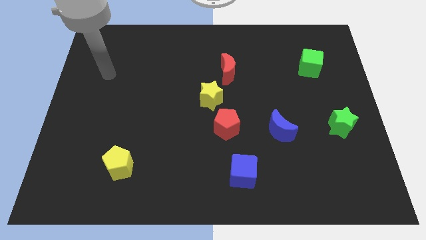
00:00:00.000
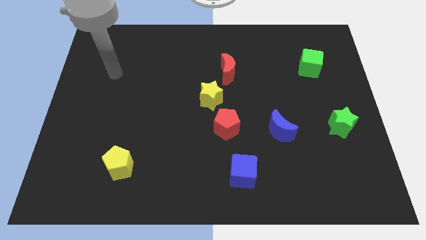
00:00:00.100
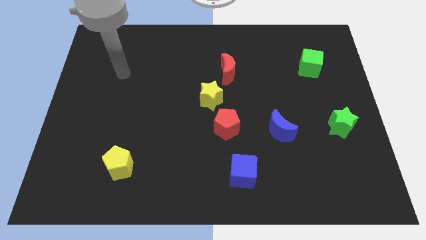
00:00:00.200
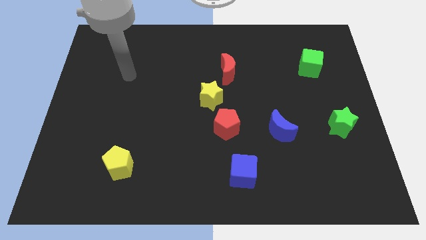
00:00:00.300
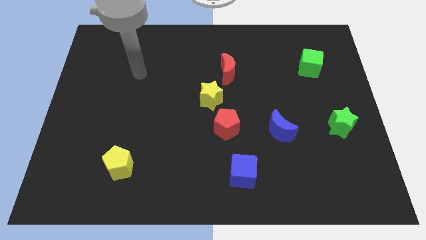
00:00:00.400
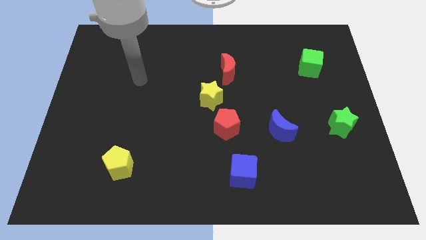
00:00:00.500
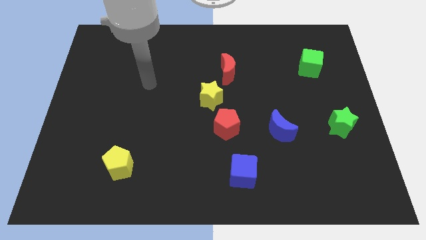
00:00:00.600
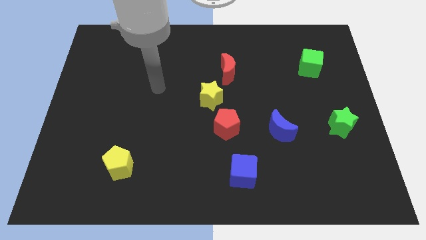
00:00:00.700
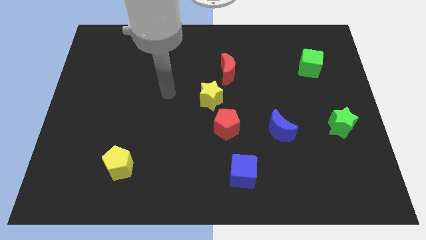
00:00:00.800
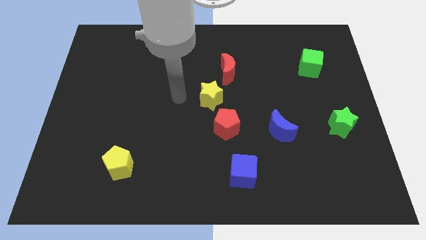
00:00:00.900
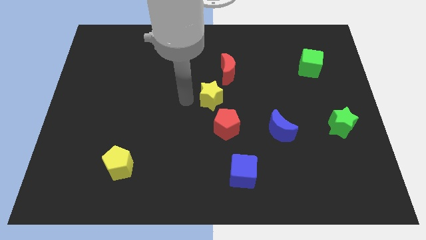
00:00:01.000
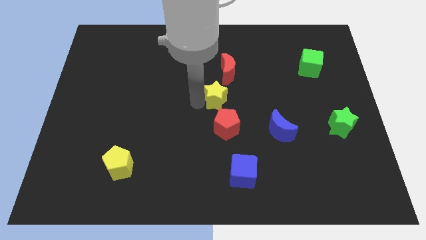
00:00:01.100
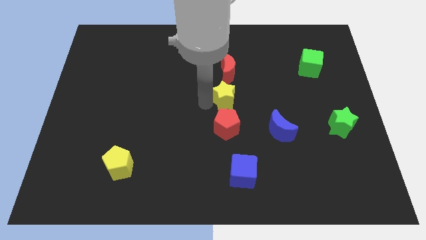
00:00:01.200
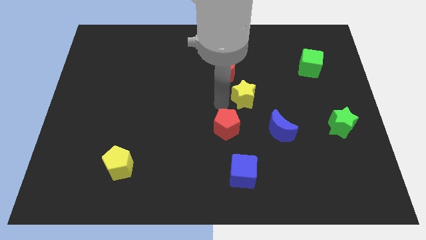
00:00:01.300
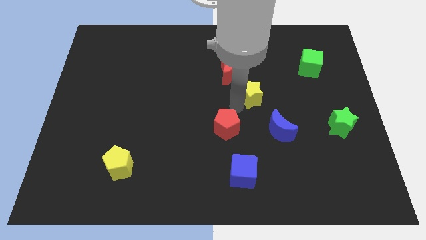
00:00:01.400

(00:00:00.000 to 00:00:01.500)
pull the red pentagon apart from the yellow star

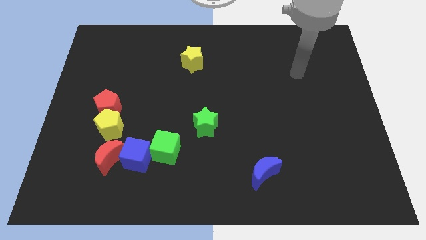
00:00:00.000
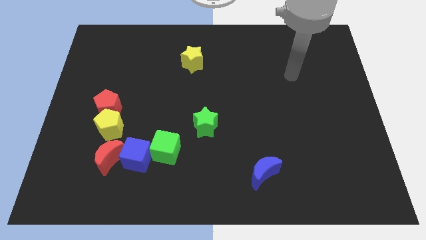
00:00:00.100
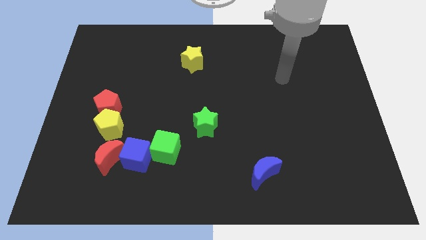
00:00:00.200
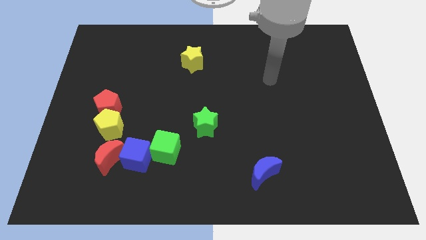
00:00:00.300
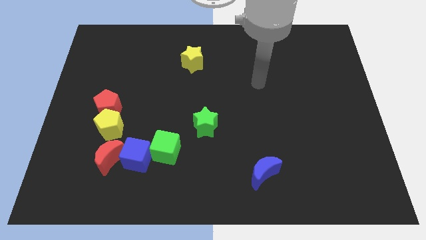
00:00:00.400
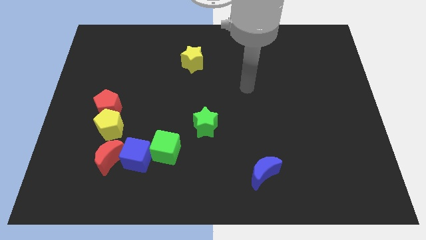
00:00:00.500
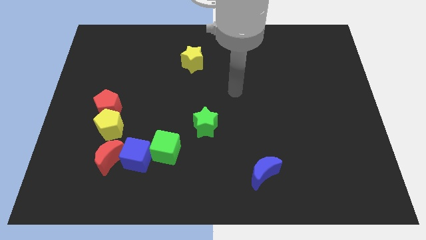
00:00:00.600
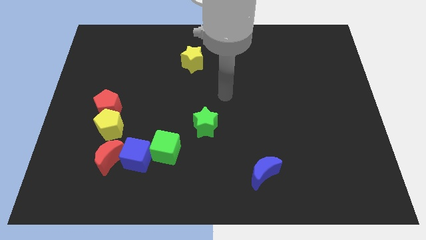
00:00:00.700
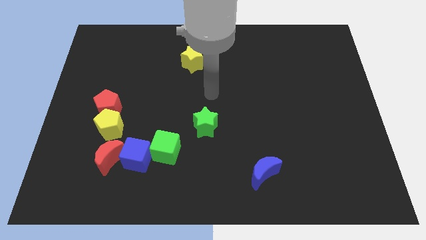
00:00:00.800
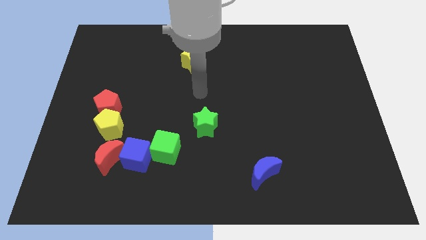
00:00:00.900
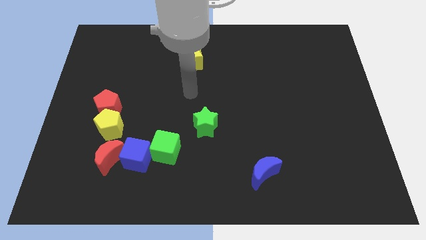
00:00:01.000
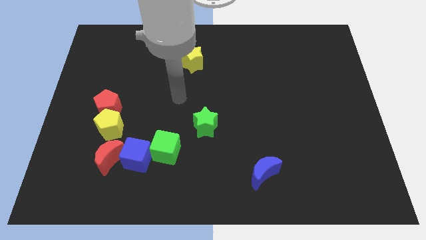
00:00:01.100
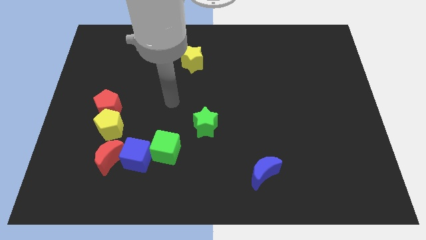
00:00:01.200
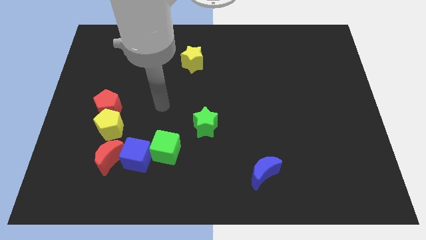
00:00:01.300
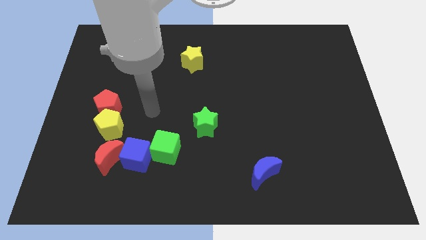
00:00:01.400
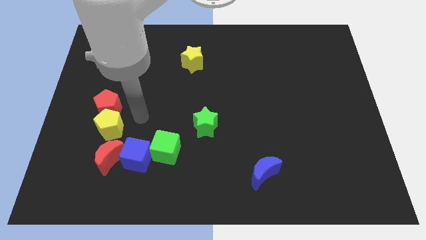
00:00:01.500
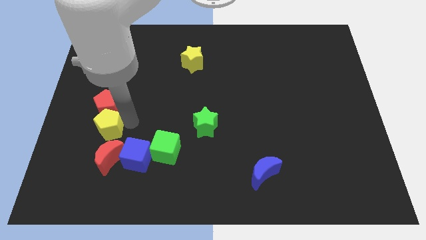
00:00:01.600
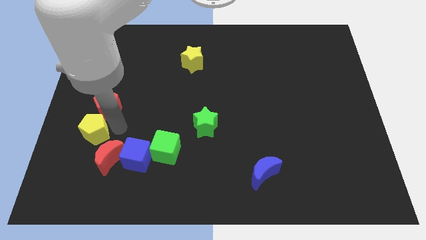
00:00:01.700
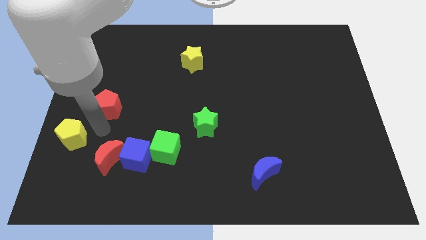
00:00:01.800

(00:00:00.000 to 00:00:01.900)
move the red pentagon away from the yellow pentagon

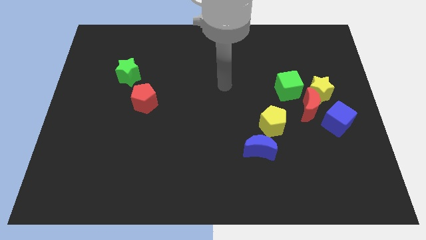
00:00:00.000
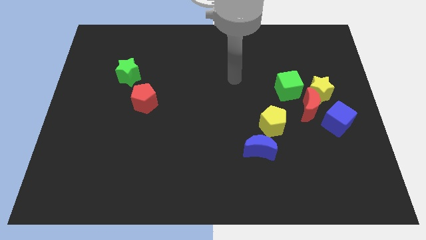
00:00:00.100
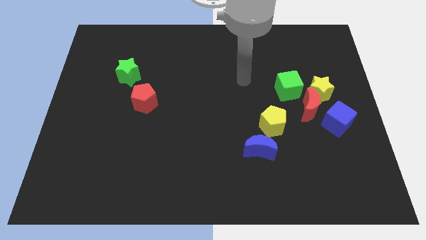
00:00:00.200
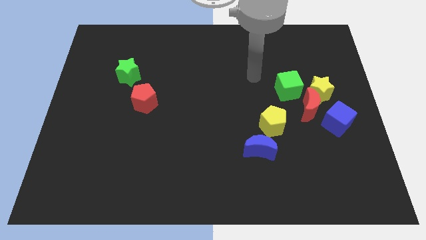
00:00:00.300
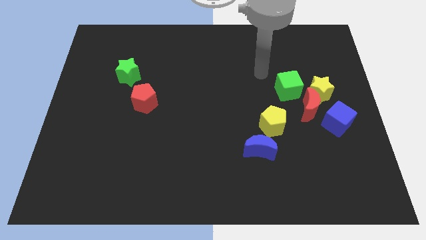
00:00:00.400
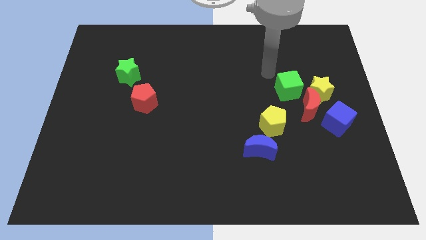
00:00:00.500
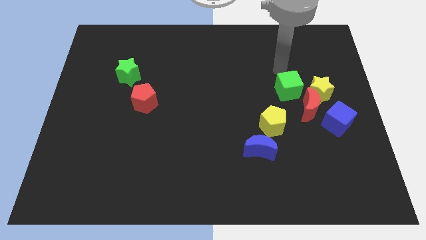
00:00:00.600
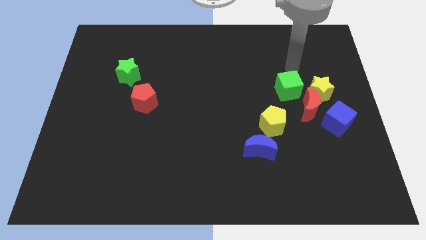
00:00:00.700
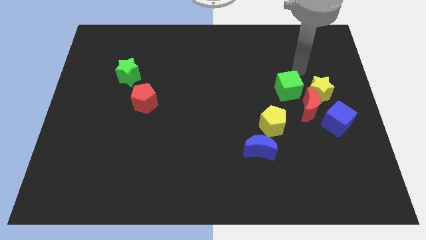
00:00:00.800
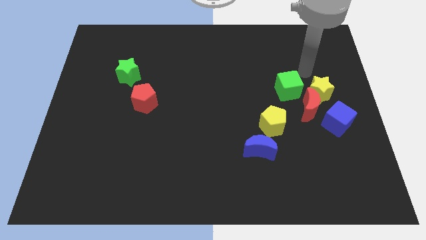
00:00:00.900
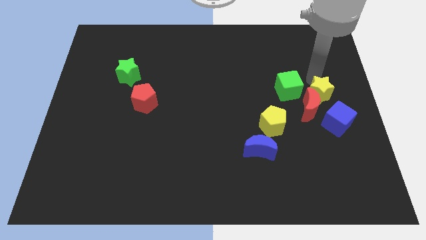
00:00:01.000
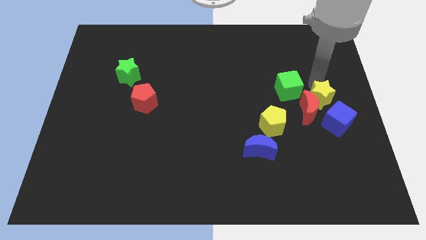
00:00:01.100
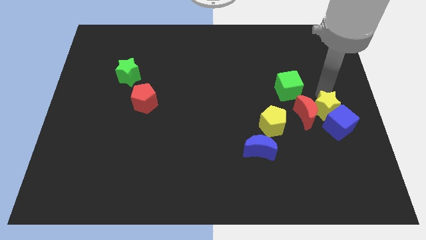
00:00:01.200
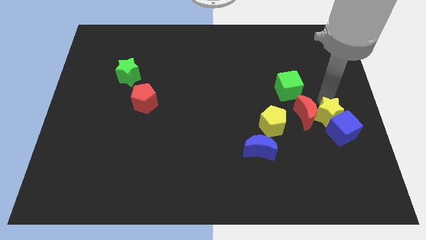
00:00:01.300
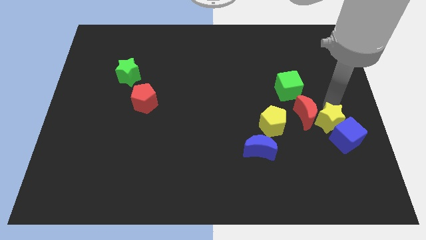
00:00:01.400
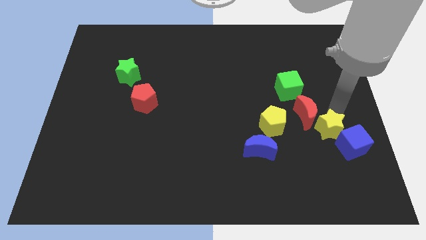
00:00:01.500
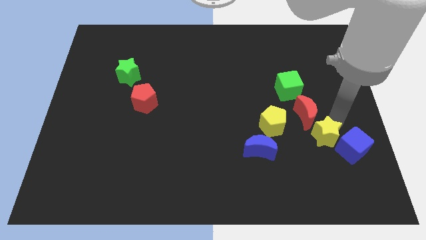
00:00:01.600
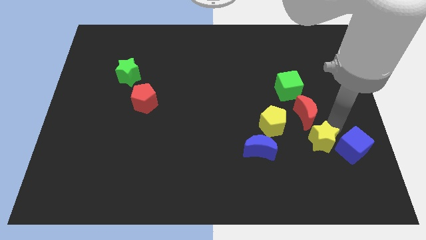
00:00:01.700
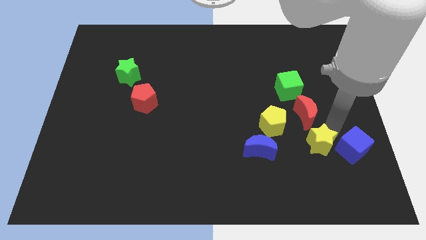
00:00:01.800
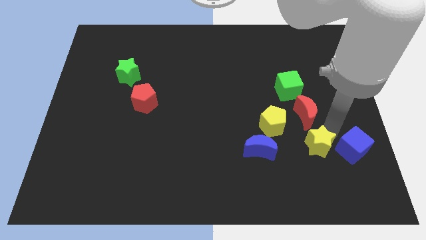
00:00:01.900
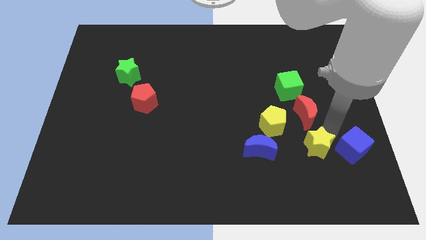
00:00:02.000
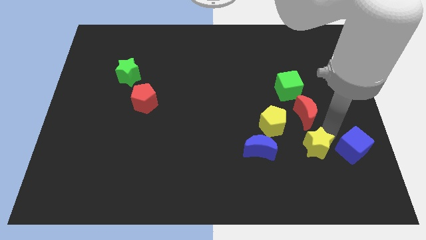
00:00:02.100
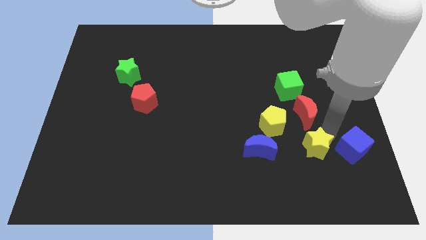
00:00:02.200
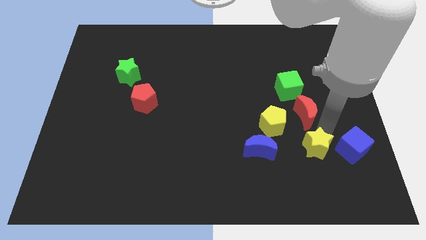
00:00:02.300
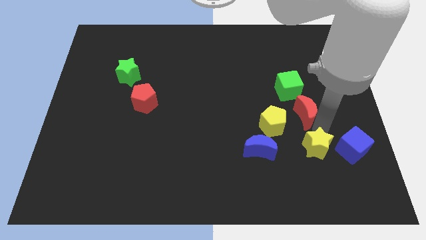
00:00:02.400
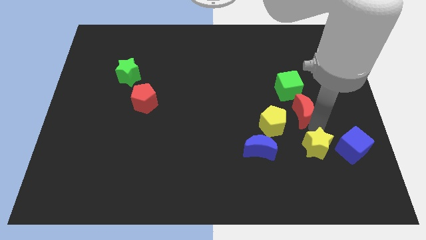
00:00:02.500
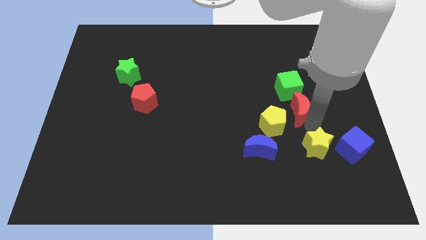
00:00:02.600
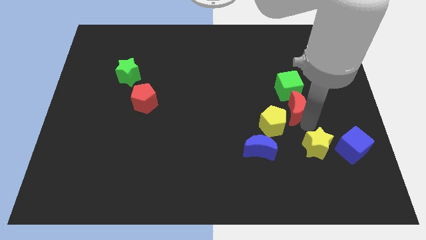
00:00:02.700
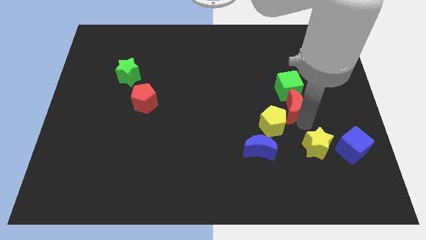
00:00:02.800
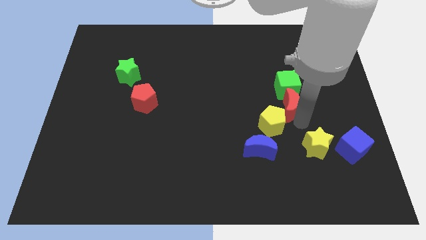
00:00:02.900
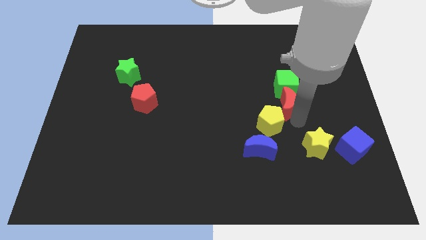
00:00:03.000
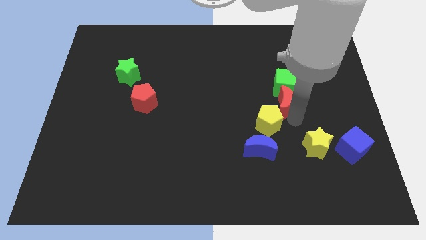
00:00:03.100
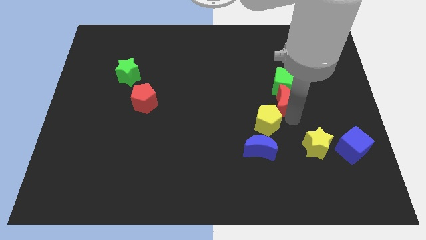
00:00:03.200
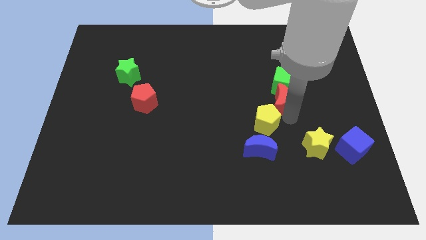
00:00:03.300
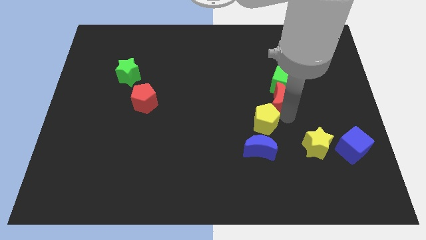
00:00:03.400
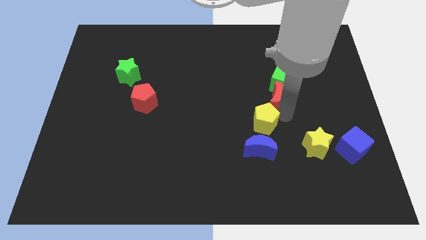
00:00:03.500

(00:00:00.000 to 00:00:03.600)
move the red moon away from the yellow star, blue cube, and green cube

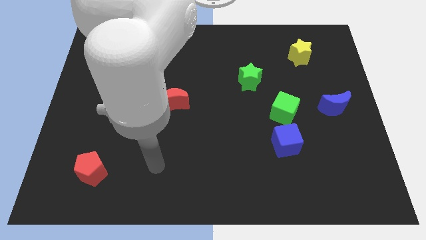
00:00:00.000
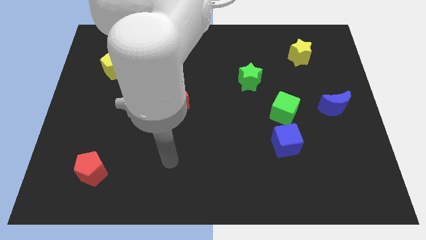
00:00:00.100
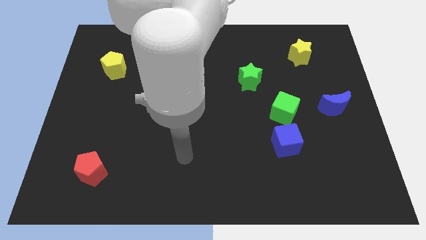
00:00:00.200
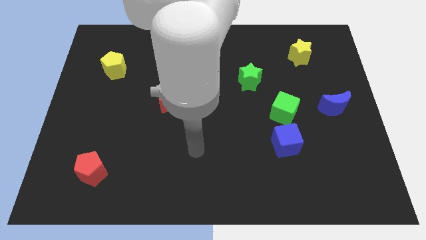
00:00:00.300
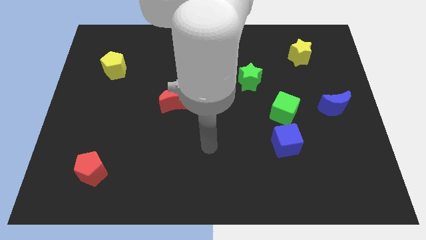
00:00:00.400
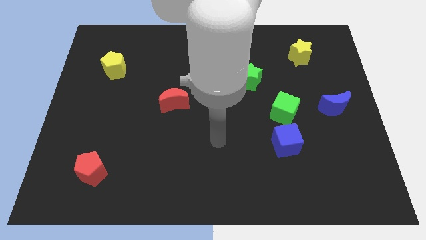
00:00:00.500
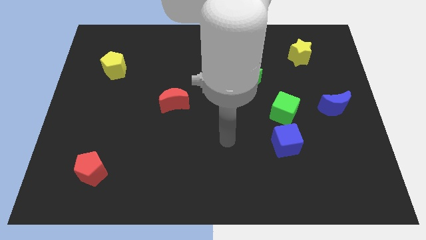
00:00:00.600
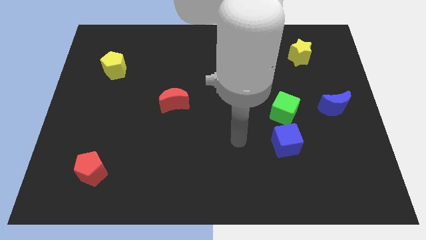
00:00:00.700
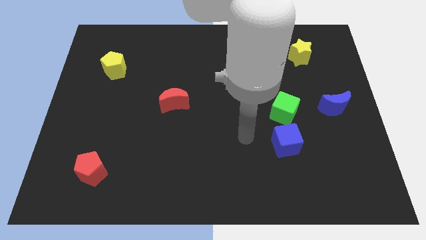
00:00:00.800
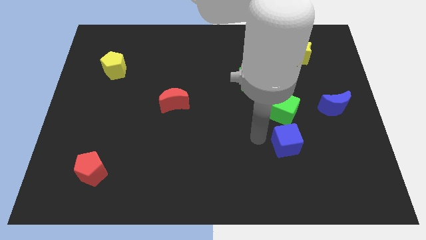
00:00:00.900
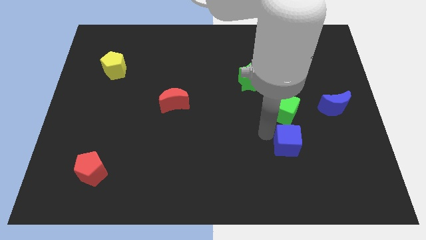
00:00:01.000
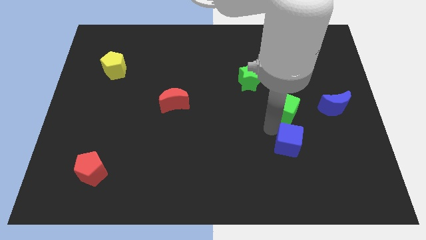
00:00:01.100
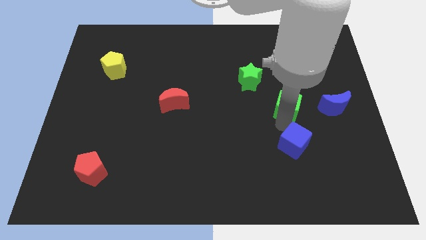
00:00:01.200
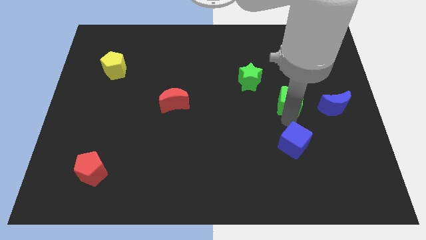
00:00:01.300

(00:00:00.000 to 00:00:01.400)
pull the blue cube apart from the green cube

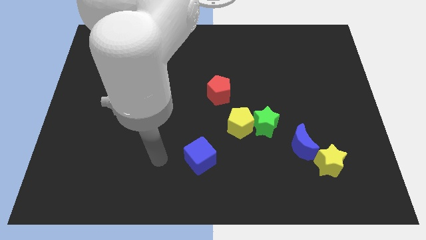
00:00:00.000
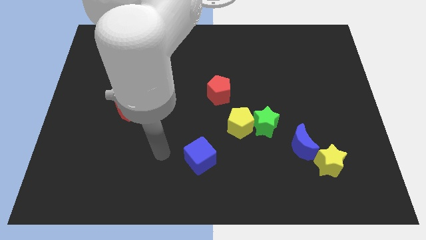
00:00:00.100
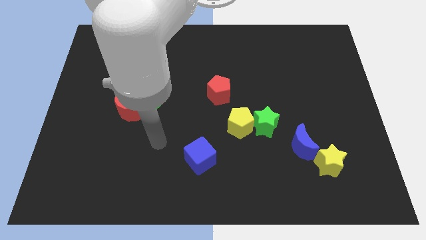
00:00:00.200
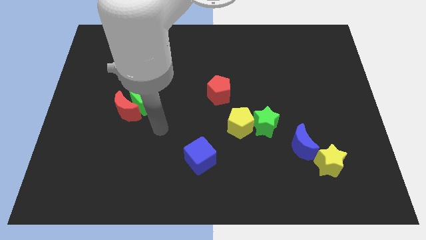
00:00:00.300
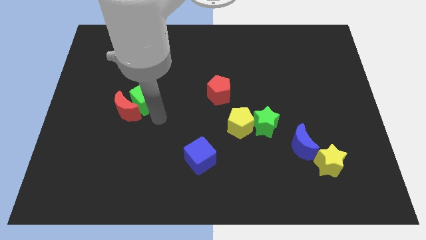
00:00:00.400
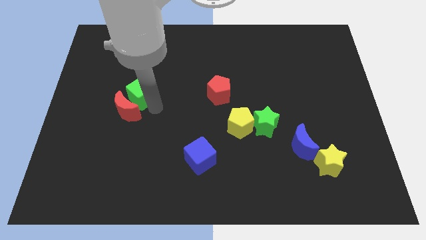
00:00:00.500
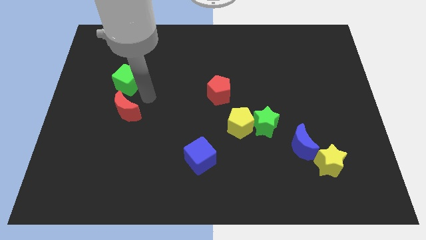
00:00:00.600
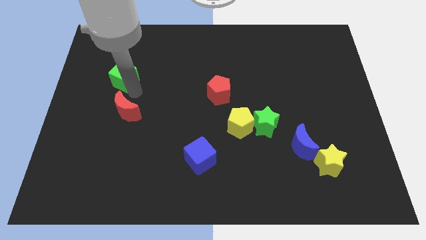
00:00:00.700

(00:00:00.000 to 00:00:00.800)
move the red moon away from the green cube
